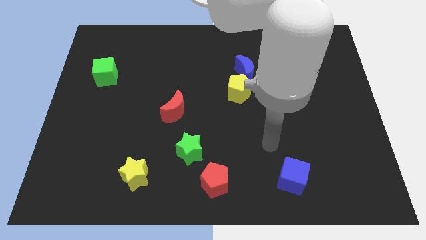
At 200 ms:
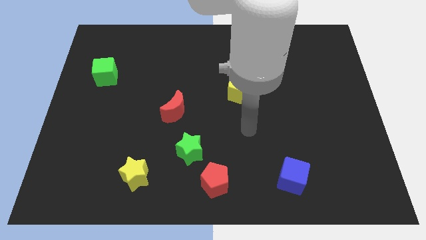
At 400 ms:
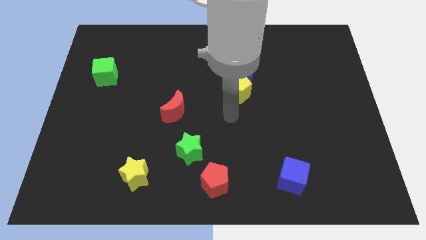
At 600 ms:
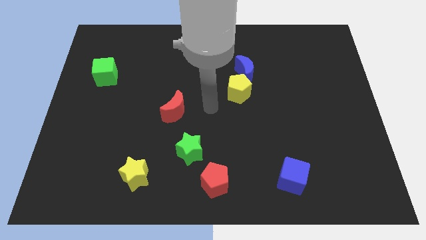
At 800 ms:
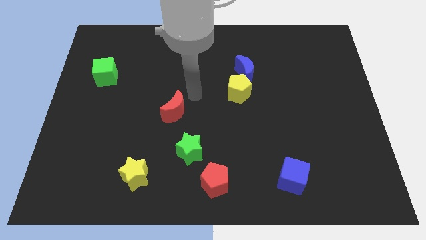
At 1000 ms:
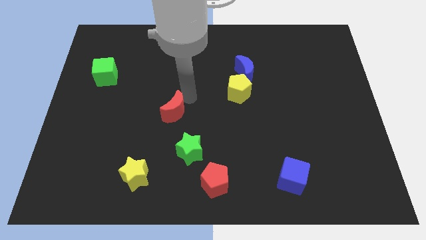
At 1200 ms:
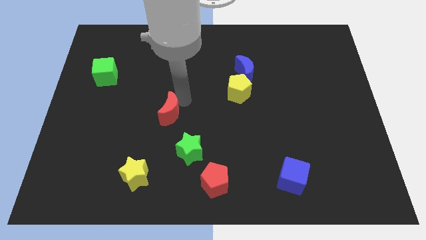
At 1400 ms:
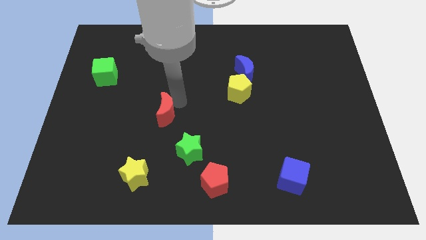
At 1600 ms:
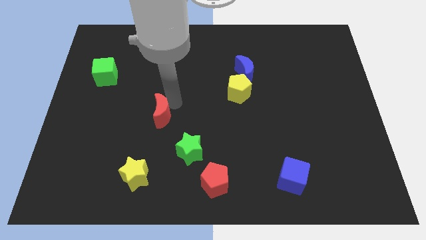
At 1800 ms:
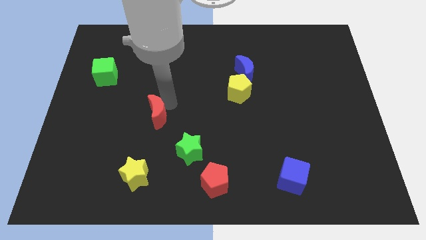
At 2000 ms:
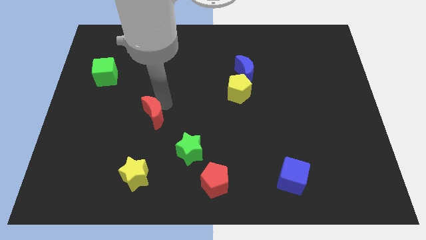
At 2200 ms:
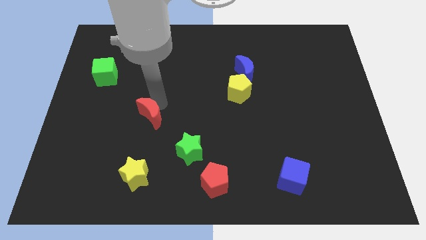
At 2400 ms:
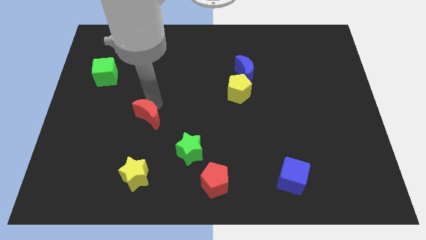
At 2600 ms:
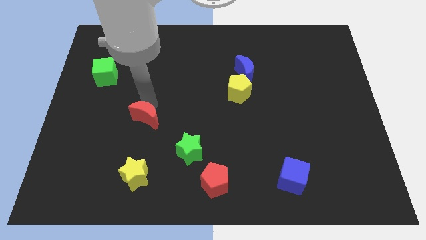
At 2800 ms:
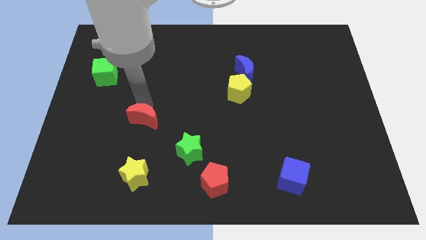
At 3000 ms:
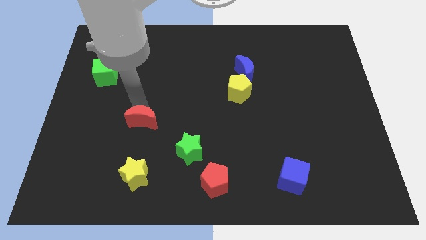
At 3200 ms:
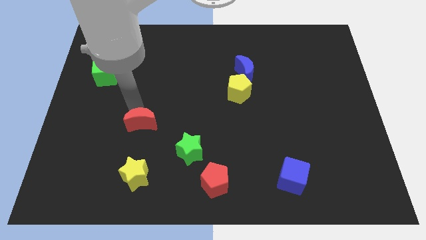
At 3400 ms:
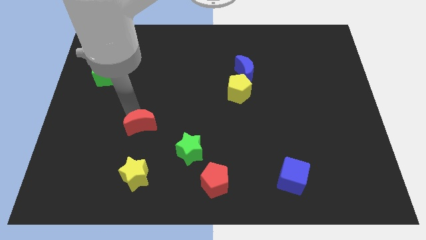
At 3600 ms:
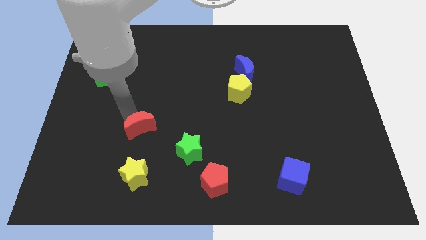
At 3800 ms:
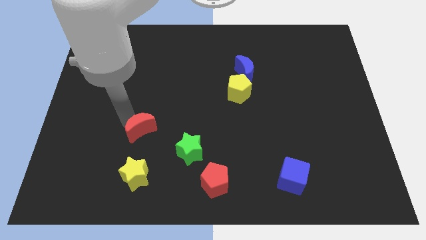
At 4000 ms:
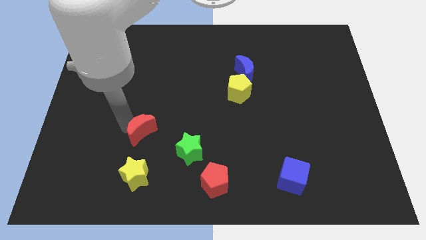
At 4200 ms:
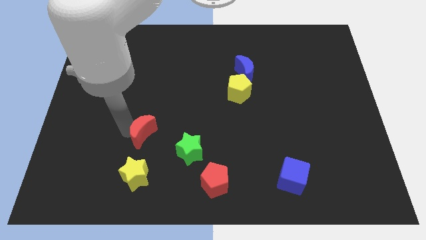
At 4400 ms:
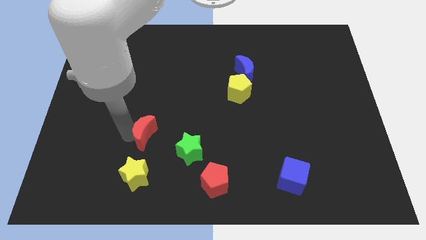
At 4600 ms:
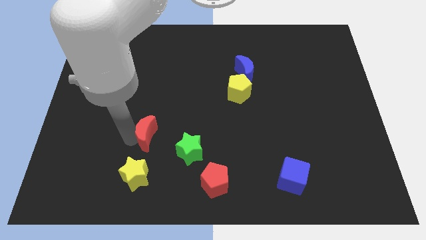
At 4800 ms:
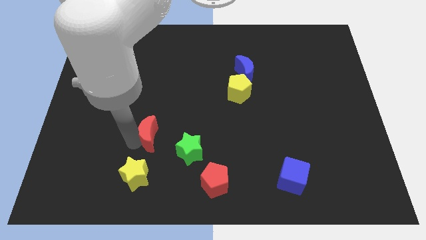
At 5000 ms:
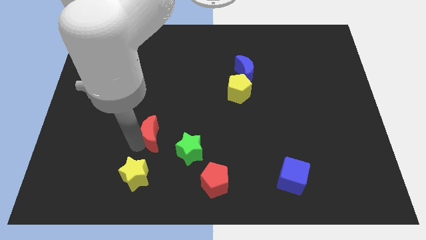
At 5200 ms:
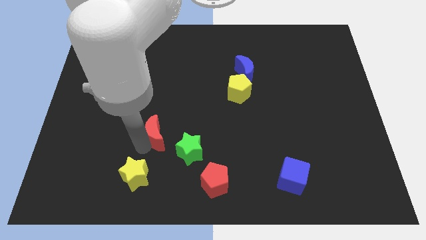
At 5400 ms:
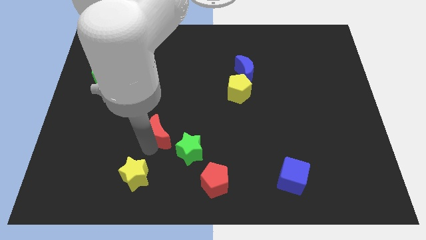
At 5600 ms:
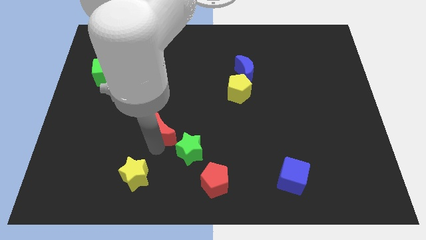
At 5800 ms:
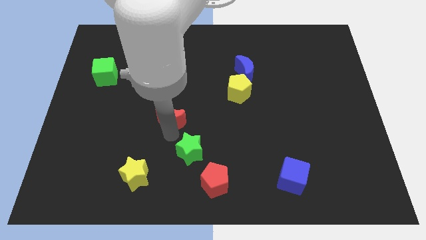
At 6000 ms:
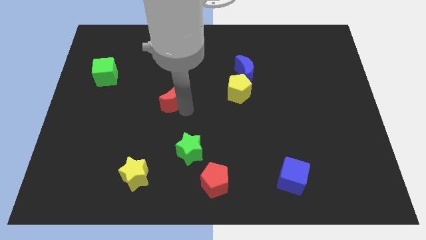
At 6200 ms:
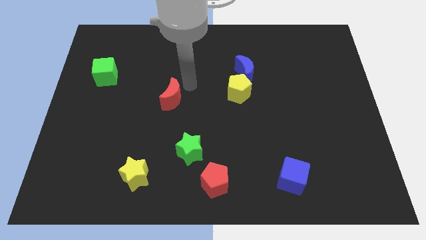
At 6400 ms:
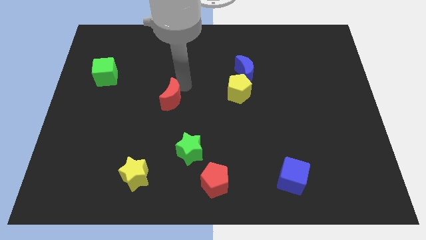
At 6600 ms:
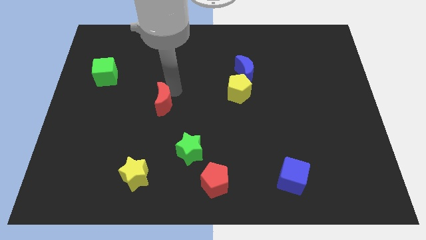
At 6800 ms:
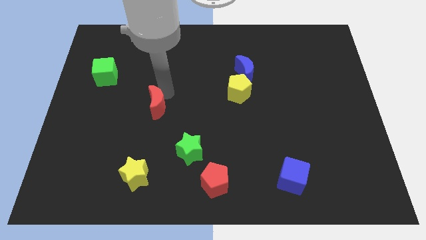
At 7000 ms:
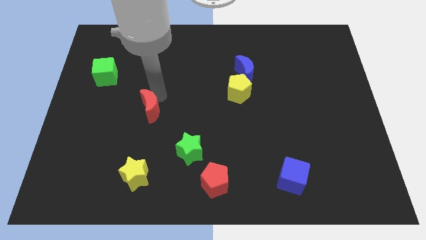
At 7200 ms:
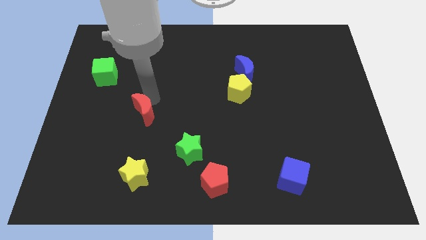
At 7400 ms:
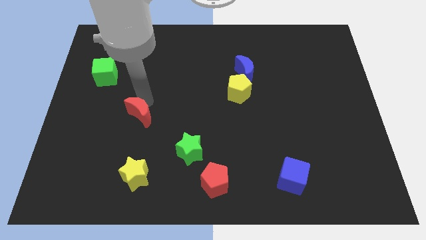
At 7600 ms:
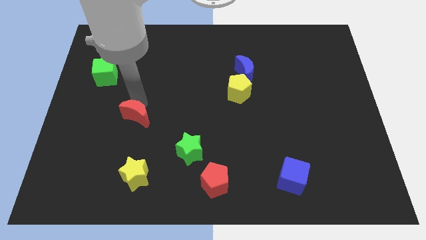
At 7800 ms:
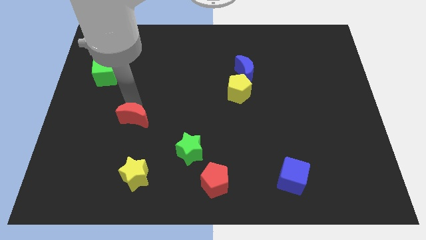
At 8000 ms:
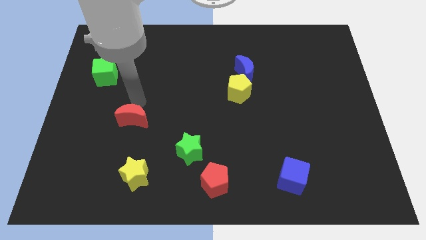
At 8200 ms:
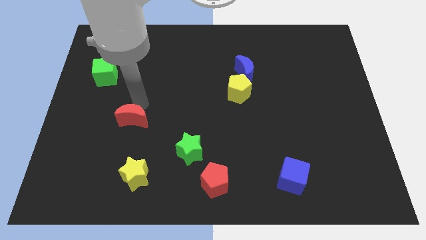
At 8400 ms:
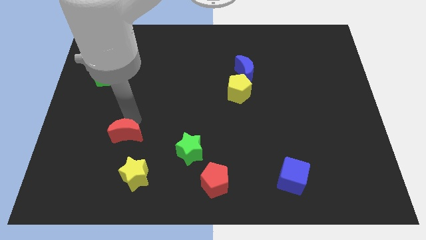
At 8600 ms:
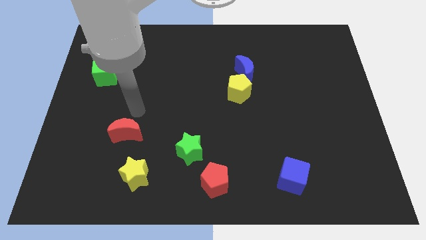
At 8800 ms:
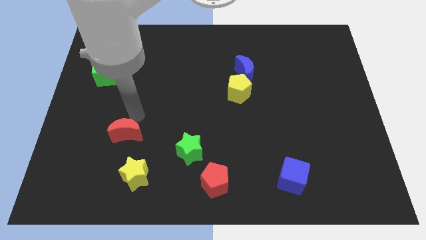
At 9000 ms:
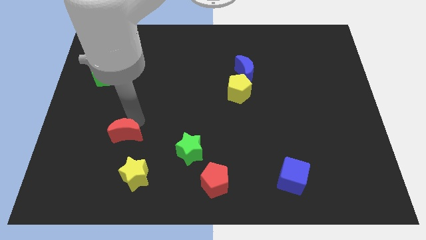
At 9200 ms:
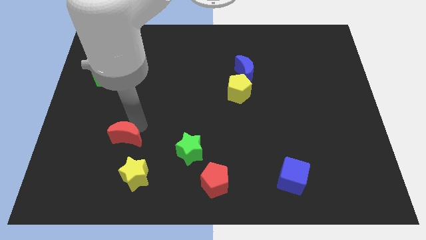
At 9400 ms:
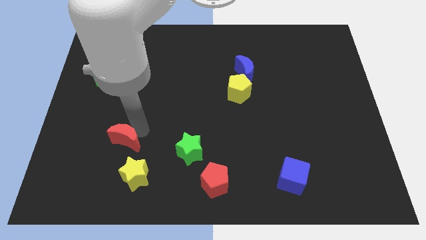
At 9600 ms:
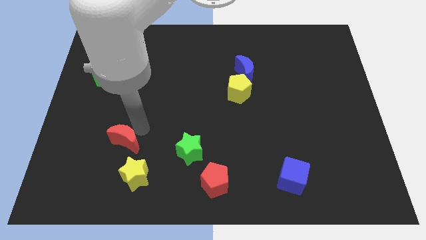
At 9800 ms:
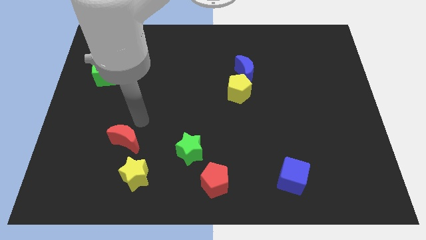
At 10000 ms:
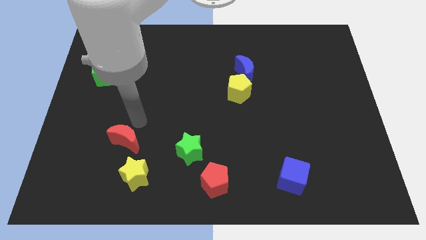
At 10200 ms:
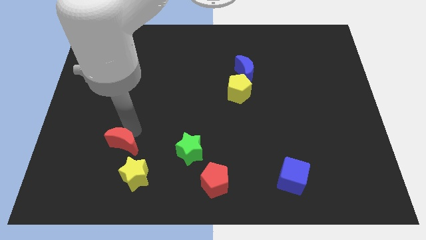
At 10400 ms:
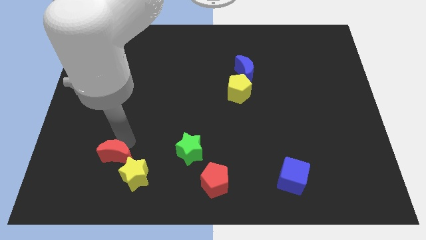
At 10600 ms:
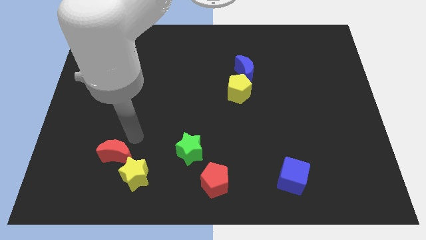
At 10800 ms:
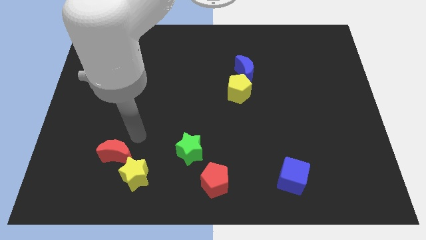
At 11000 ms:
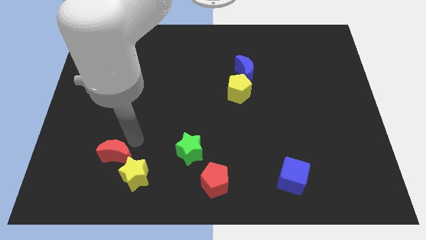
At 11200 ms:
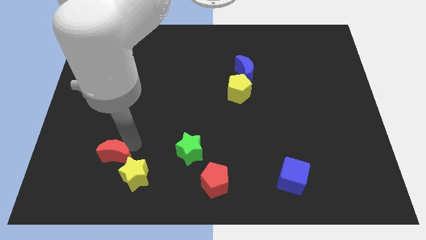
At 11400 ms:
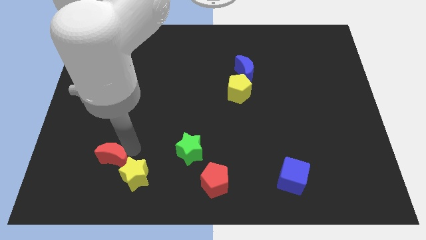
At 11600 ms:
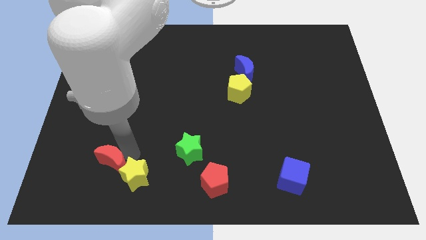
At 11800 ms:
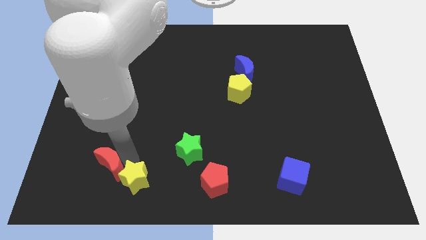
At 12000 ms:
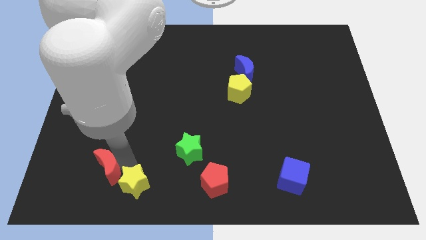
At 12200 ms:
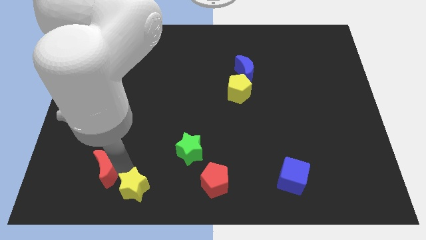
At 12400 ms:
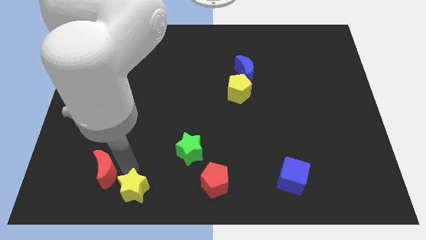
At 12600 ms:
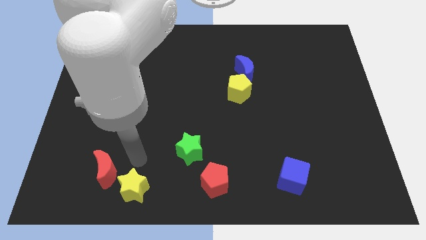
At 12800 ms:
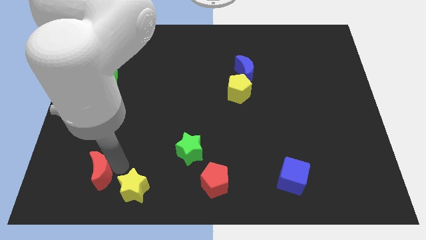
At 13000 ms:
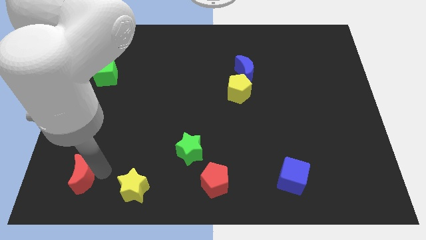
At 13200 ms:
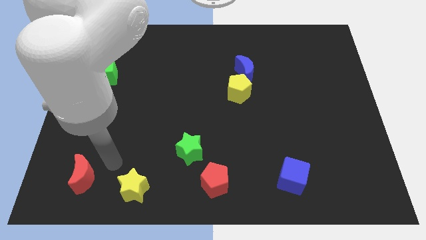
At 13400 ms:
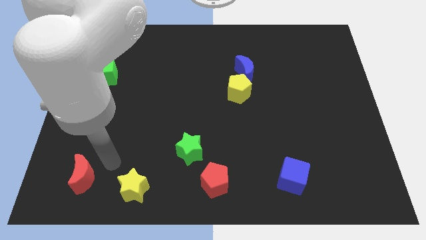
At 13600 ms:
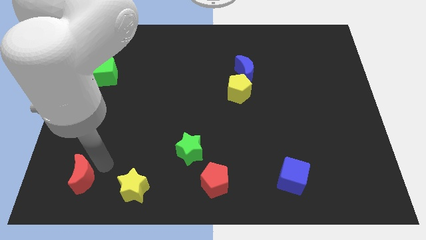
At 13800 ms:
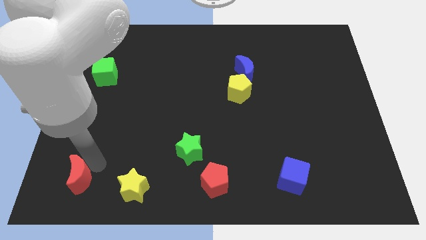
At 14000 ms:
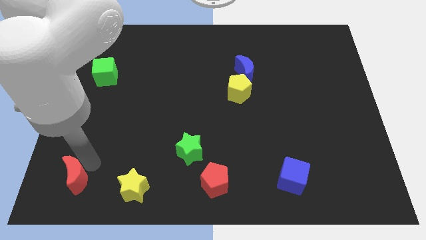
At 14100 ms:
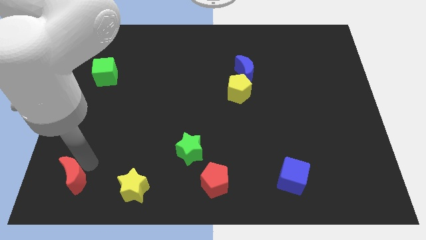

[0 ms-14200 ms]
slide the red moon to the bottom left
